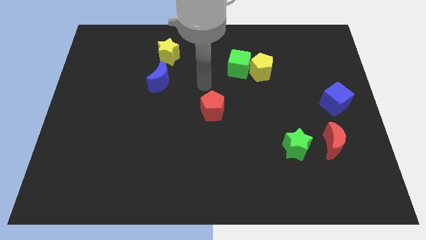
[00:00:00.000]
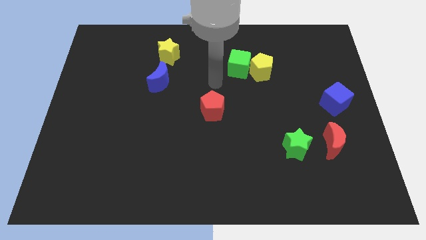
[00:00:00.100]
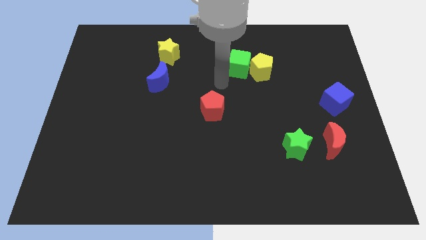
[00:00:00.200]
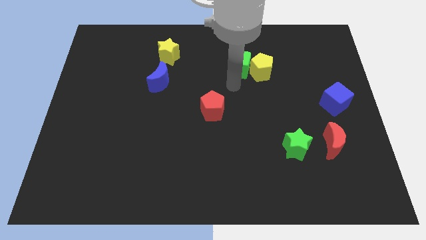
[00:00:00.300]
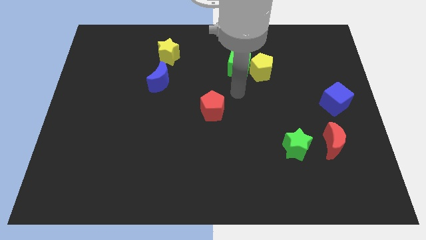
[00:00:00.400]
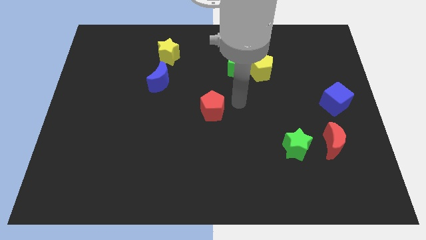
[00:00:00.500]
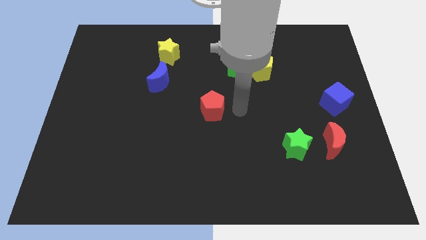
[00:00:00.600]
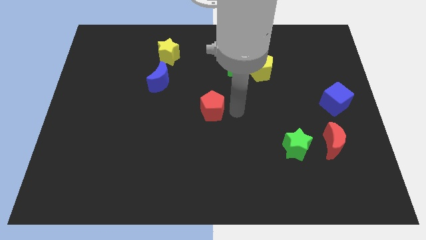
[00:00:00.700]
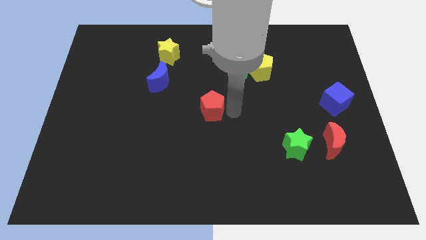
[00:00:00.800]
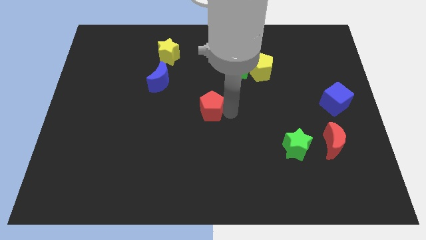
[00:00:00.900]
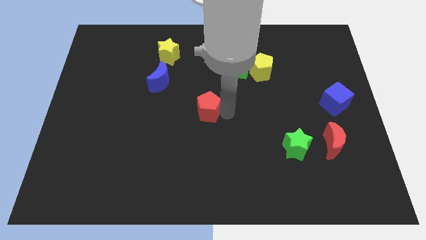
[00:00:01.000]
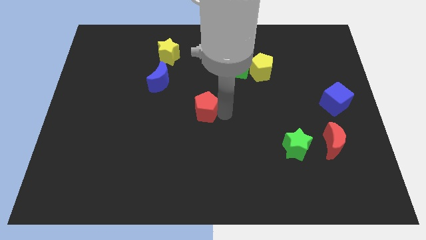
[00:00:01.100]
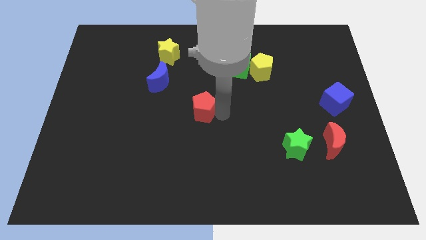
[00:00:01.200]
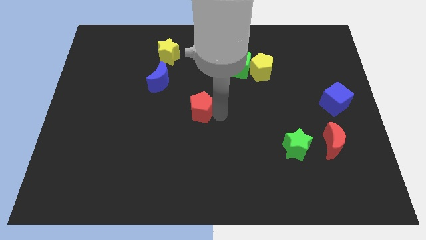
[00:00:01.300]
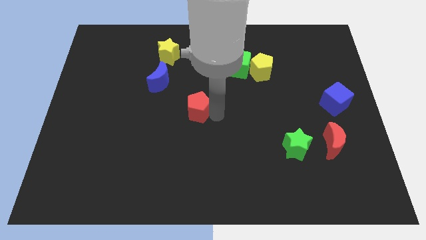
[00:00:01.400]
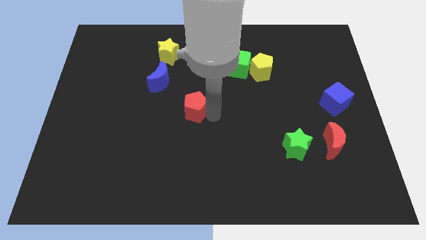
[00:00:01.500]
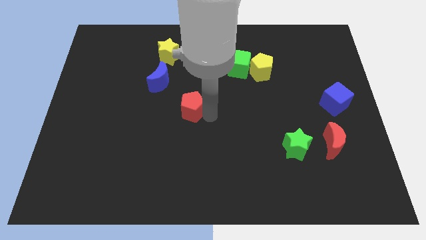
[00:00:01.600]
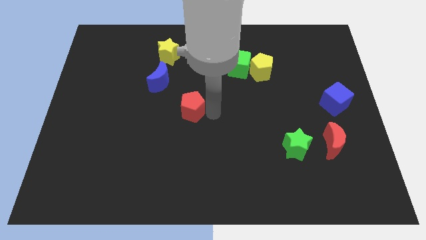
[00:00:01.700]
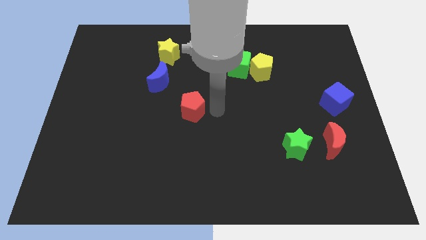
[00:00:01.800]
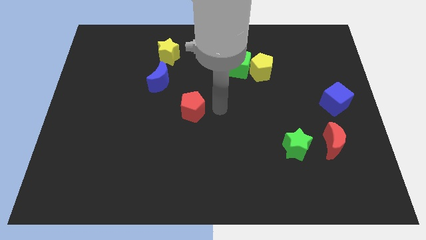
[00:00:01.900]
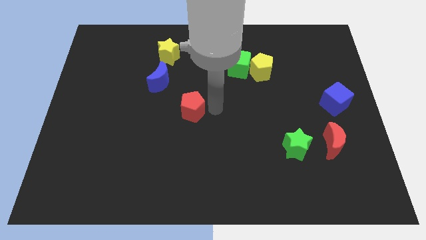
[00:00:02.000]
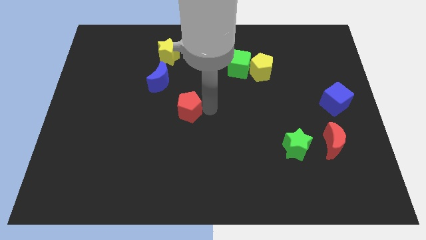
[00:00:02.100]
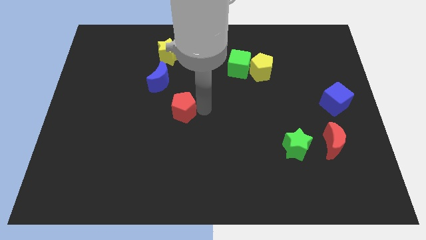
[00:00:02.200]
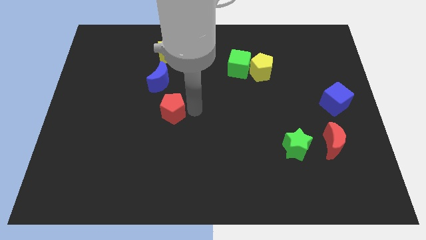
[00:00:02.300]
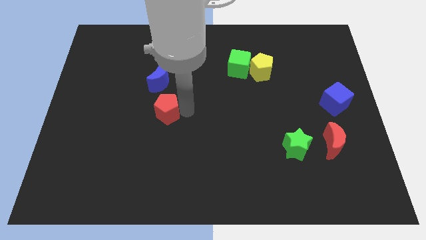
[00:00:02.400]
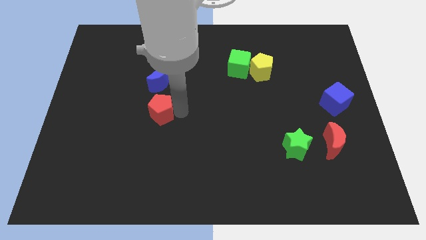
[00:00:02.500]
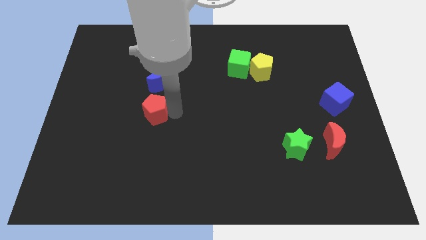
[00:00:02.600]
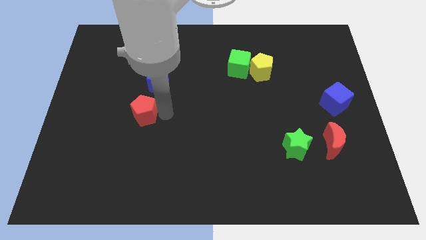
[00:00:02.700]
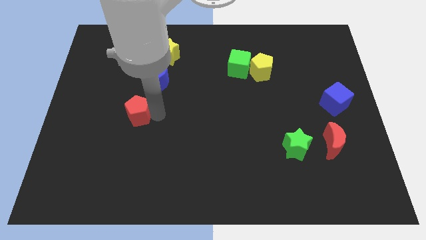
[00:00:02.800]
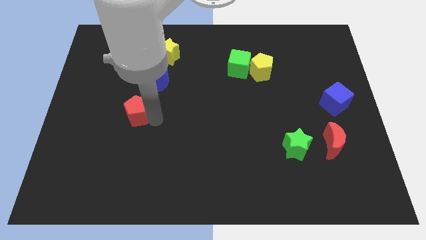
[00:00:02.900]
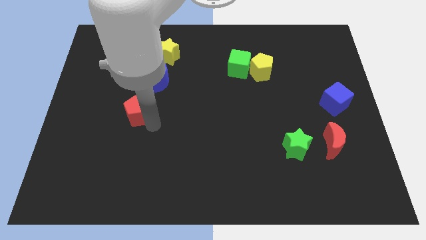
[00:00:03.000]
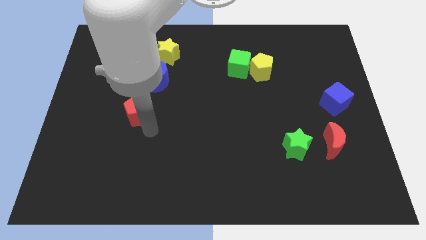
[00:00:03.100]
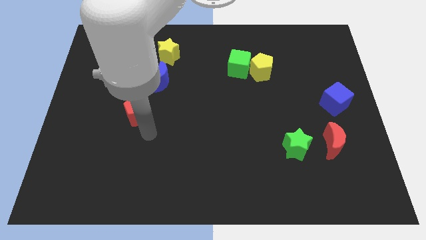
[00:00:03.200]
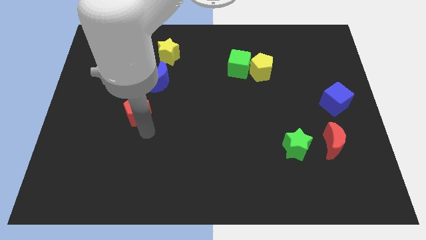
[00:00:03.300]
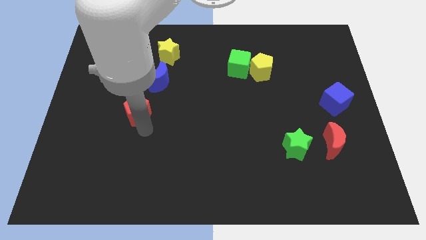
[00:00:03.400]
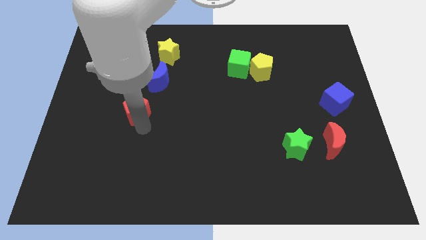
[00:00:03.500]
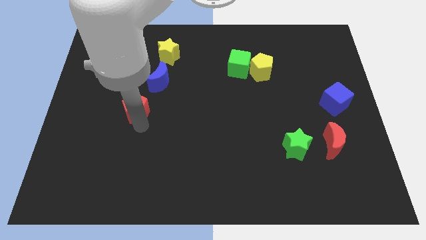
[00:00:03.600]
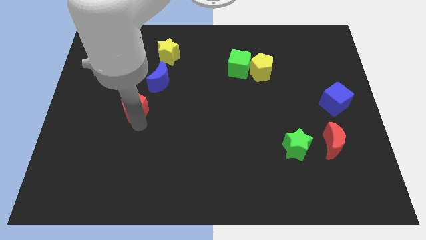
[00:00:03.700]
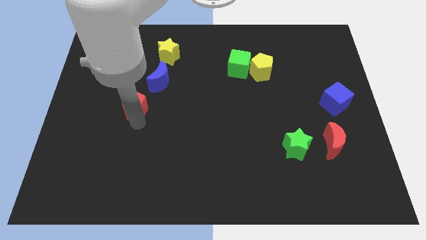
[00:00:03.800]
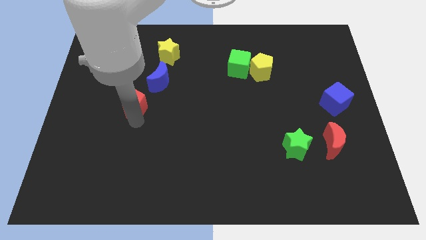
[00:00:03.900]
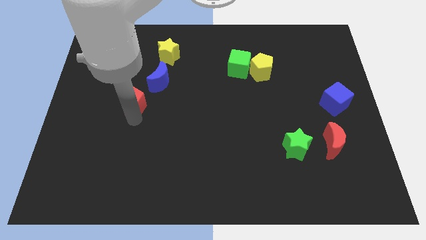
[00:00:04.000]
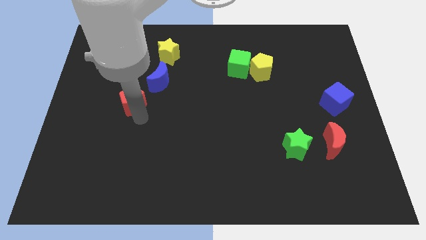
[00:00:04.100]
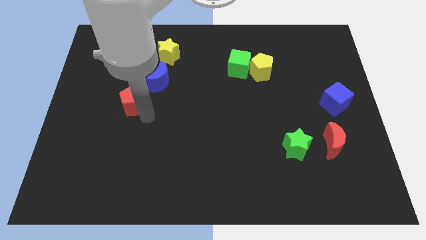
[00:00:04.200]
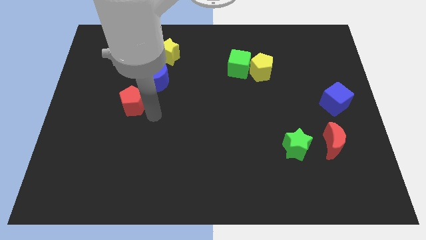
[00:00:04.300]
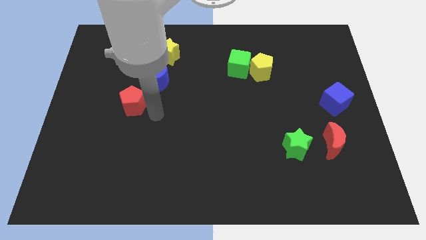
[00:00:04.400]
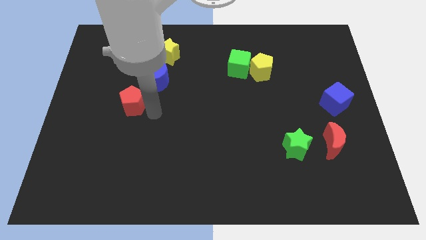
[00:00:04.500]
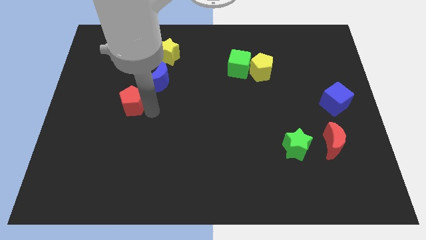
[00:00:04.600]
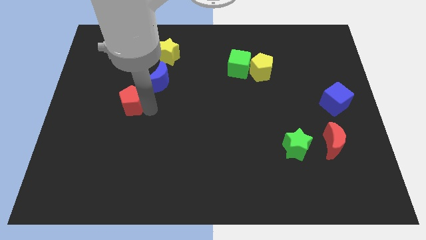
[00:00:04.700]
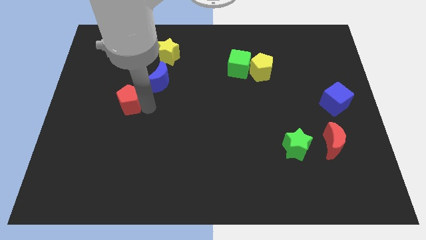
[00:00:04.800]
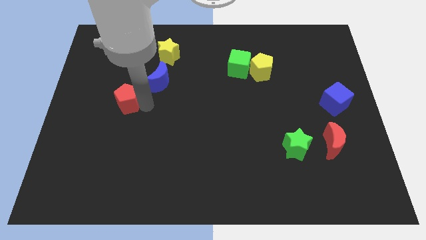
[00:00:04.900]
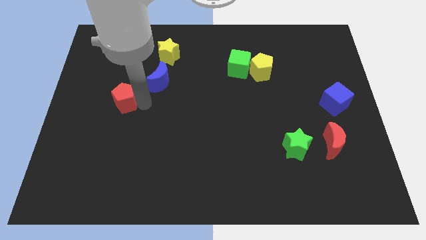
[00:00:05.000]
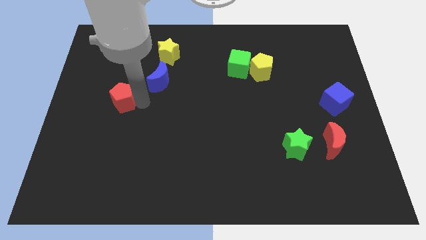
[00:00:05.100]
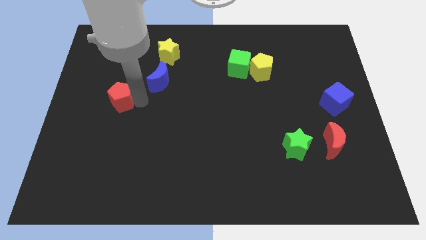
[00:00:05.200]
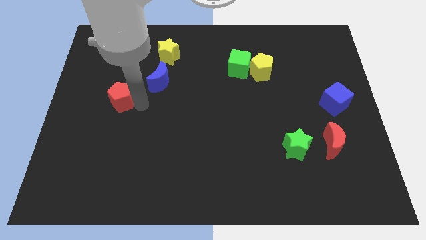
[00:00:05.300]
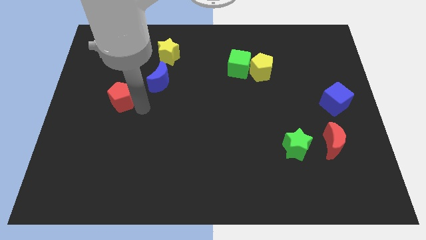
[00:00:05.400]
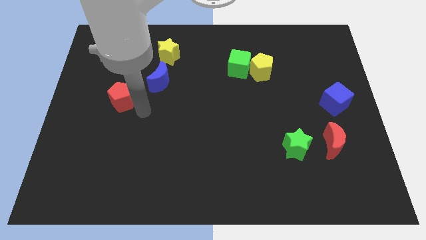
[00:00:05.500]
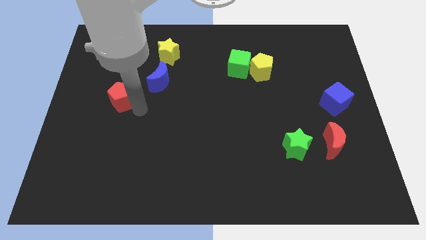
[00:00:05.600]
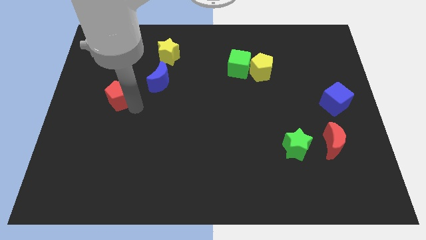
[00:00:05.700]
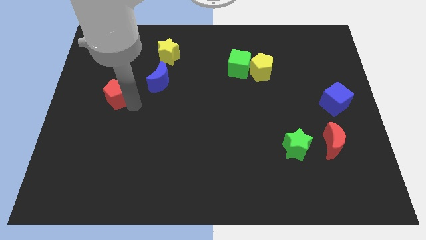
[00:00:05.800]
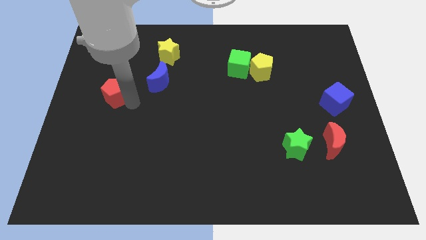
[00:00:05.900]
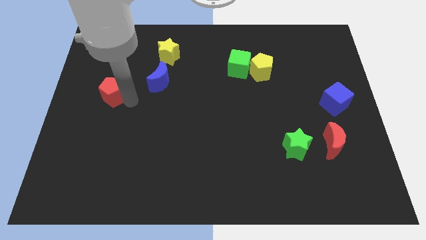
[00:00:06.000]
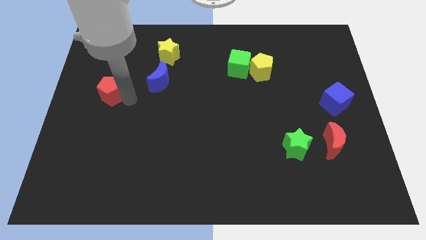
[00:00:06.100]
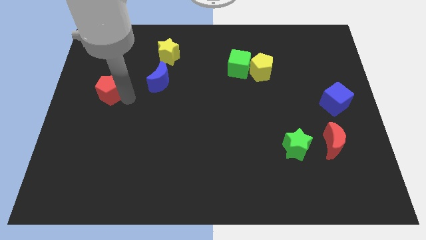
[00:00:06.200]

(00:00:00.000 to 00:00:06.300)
slide the red pentagon to the center left

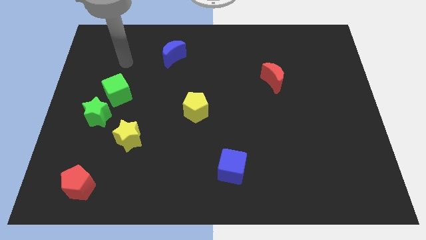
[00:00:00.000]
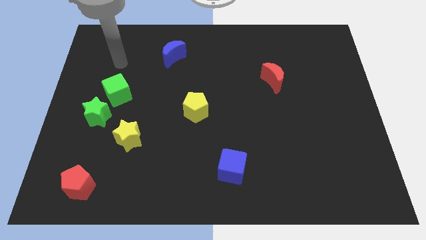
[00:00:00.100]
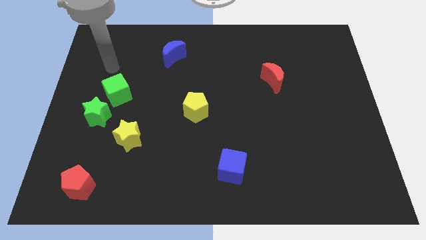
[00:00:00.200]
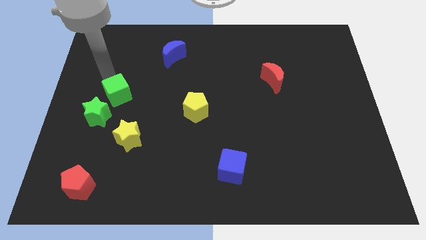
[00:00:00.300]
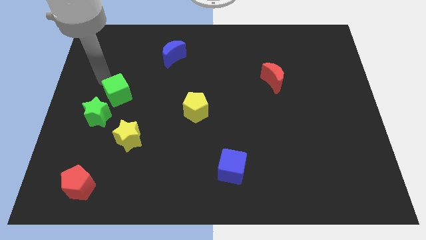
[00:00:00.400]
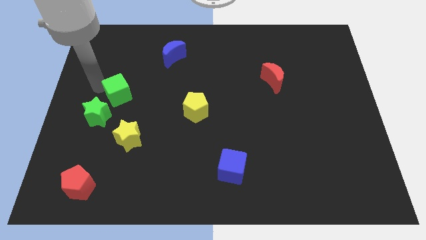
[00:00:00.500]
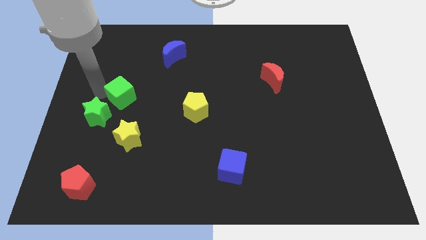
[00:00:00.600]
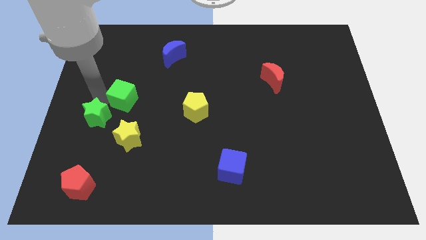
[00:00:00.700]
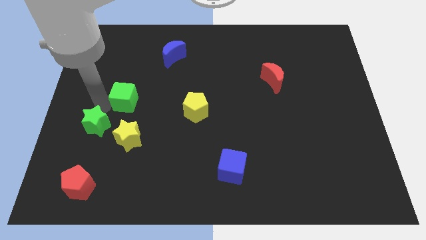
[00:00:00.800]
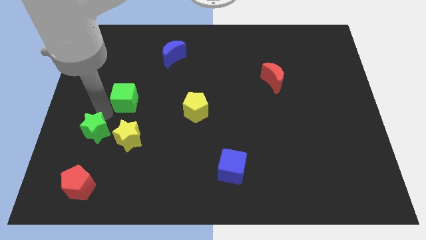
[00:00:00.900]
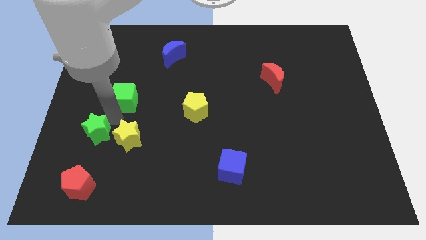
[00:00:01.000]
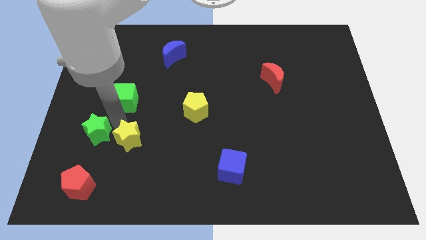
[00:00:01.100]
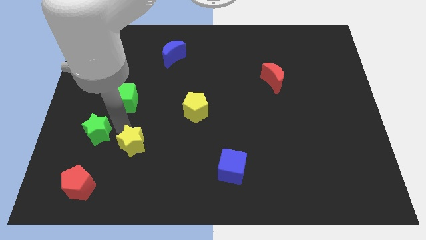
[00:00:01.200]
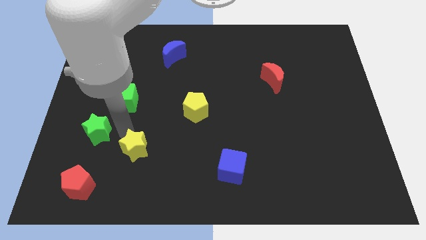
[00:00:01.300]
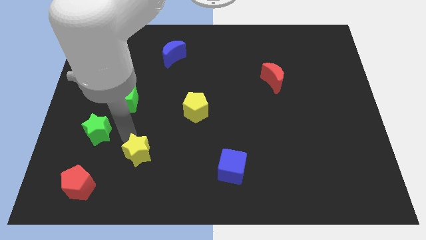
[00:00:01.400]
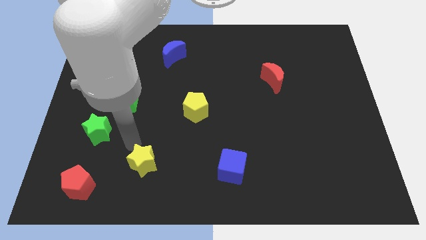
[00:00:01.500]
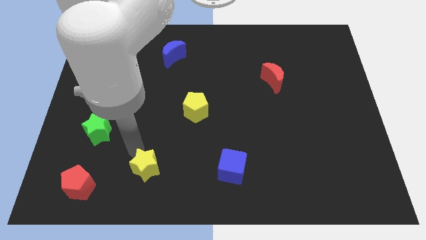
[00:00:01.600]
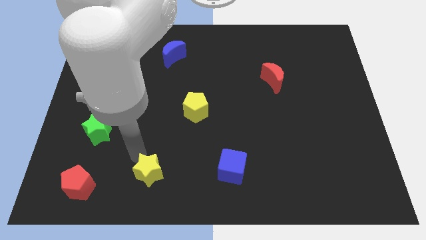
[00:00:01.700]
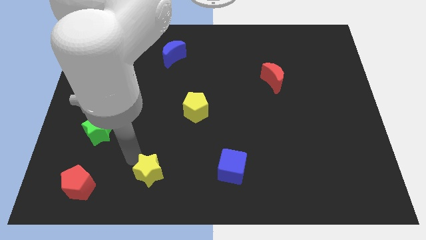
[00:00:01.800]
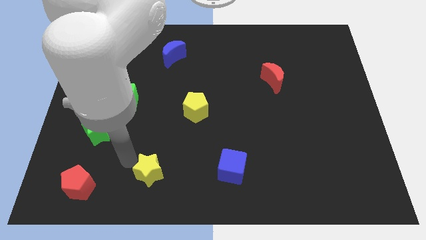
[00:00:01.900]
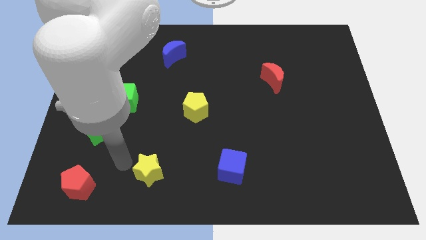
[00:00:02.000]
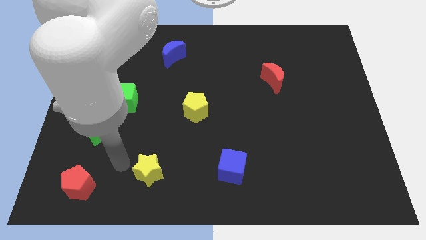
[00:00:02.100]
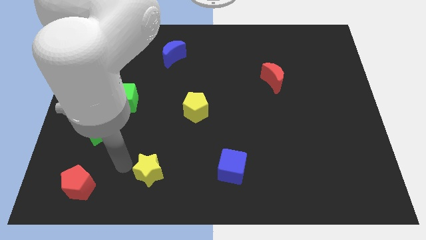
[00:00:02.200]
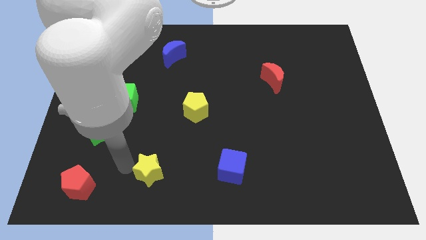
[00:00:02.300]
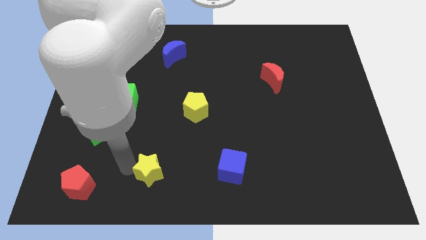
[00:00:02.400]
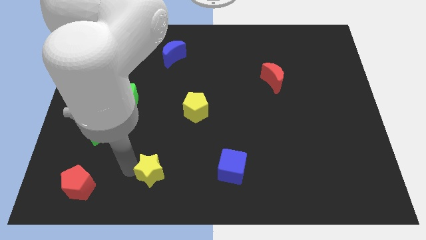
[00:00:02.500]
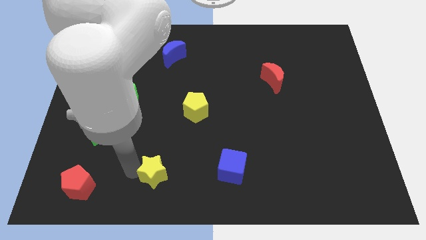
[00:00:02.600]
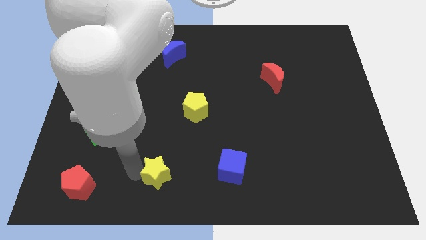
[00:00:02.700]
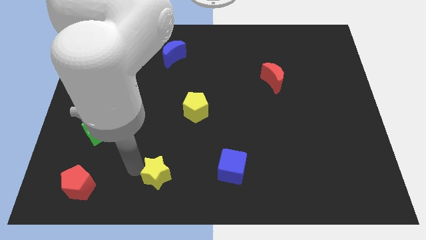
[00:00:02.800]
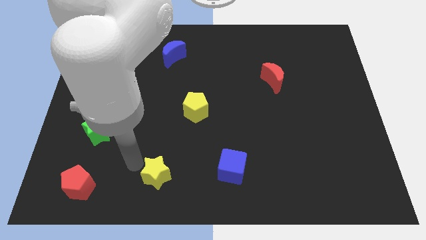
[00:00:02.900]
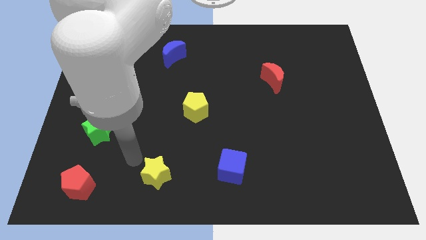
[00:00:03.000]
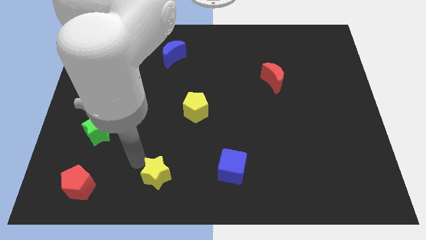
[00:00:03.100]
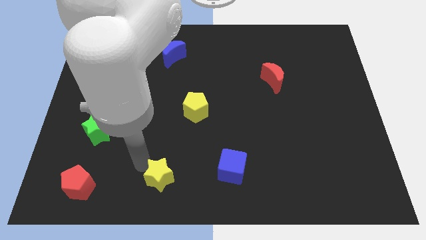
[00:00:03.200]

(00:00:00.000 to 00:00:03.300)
put the yellow star to the bottom side
